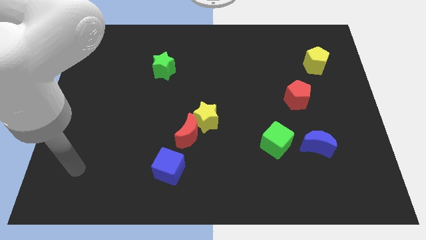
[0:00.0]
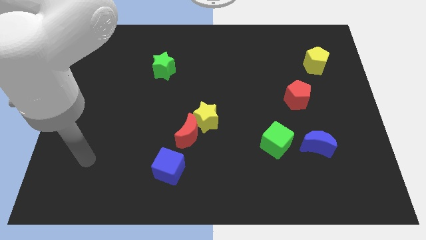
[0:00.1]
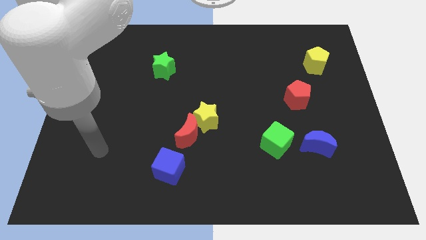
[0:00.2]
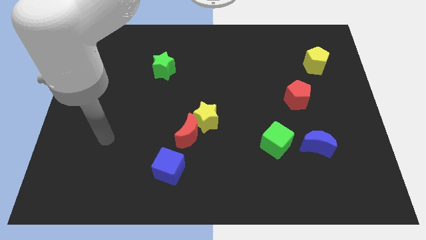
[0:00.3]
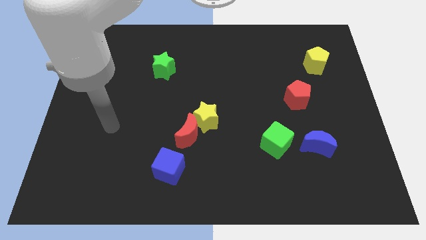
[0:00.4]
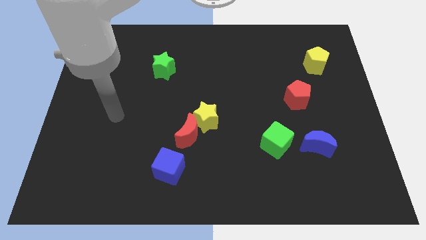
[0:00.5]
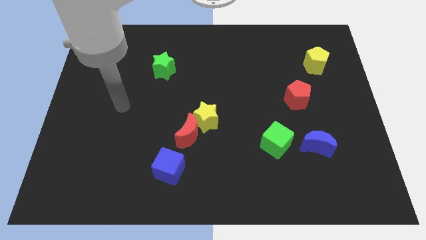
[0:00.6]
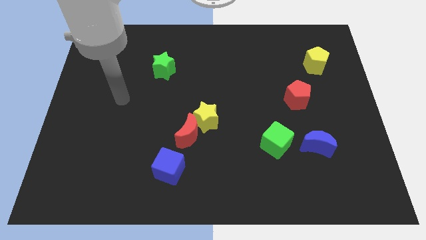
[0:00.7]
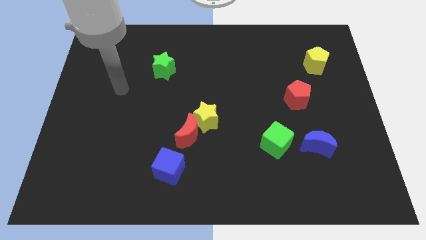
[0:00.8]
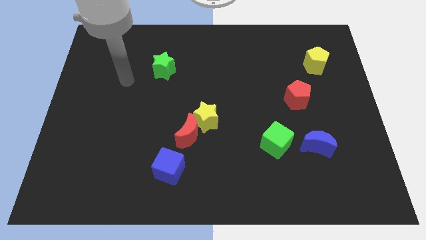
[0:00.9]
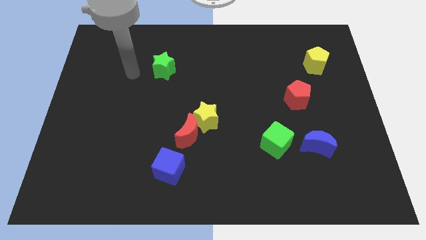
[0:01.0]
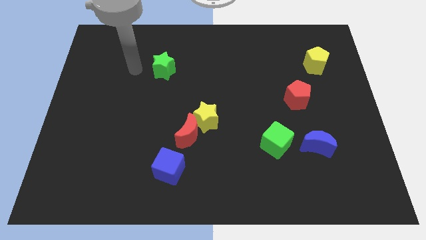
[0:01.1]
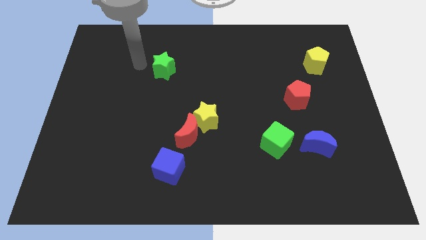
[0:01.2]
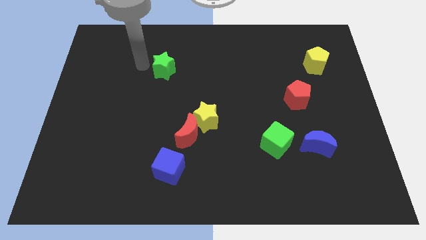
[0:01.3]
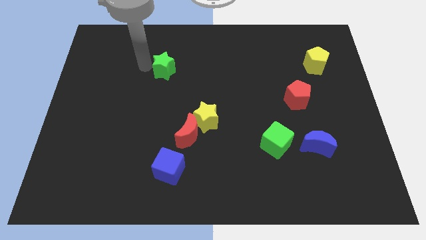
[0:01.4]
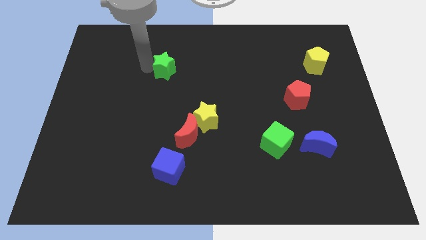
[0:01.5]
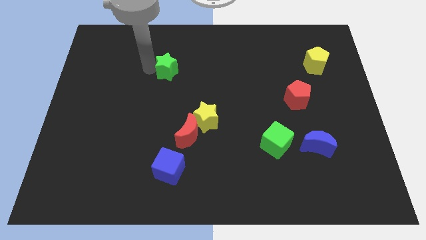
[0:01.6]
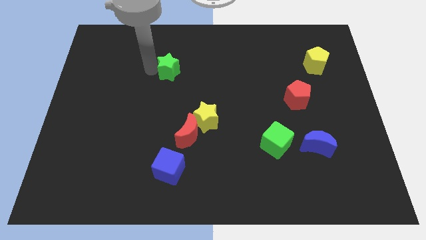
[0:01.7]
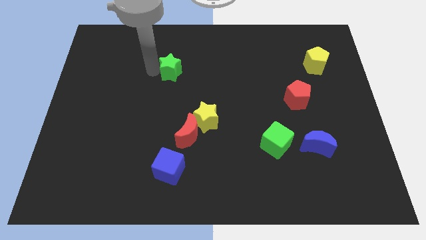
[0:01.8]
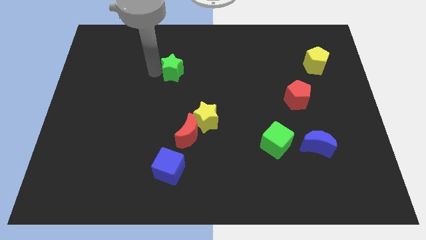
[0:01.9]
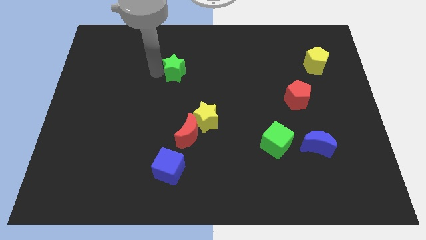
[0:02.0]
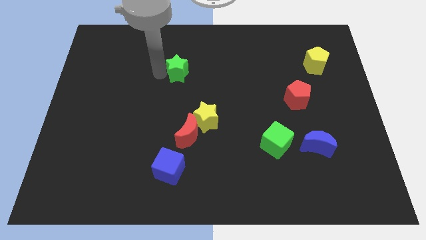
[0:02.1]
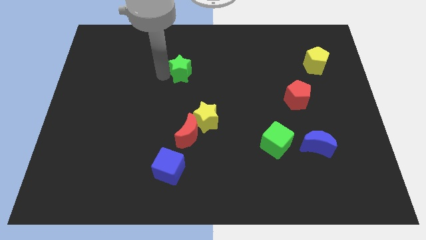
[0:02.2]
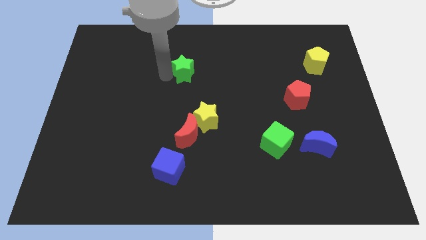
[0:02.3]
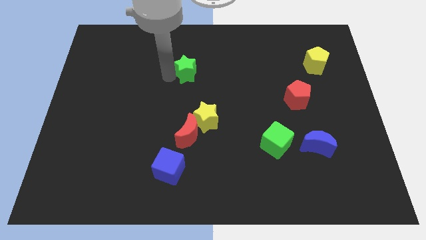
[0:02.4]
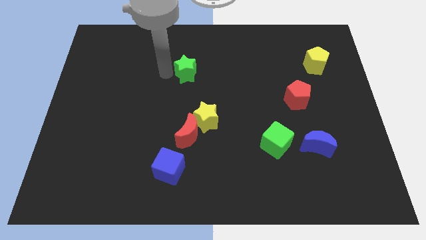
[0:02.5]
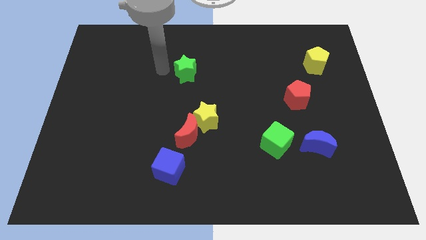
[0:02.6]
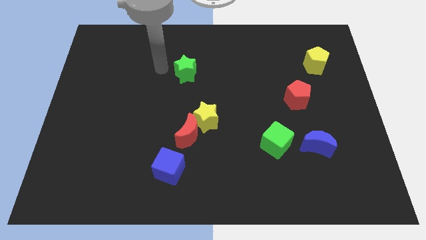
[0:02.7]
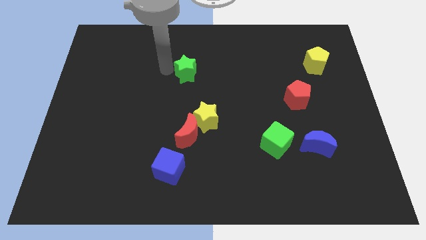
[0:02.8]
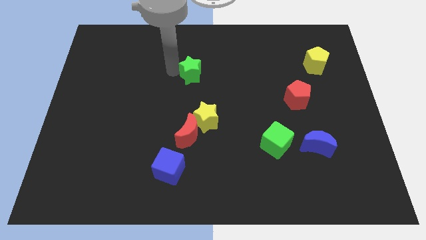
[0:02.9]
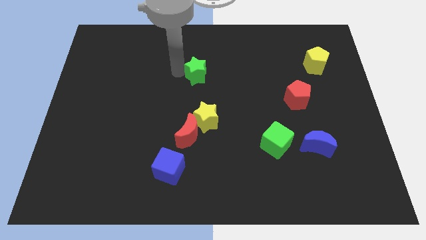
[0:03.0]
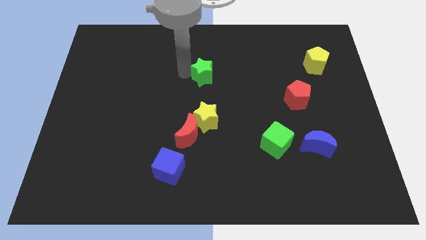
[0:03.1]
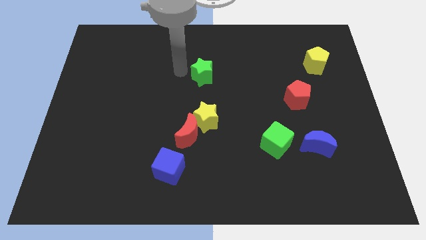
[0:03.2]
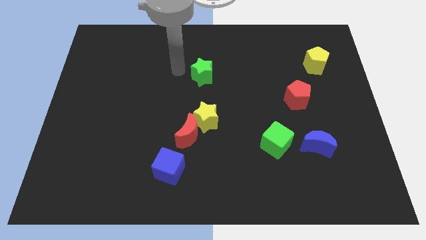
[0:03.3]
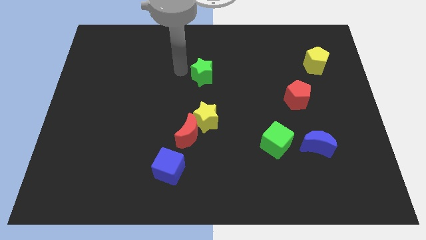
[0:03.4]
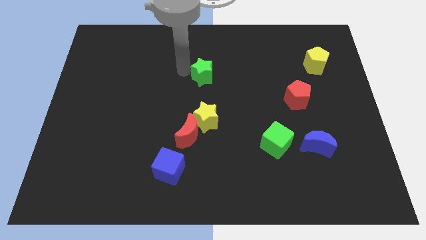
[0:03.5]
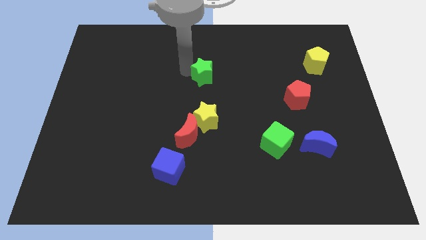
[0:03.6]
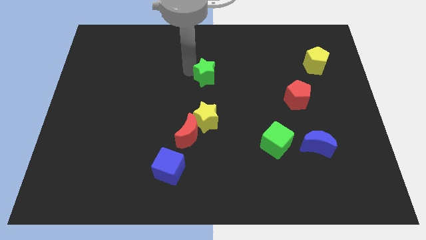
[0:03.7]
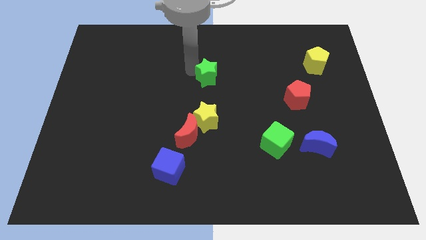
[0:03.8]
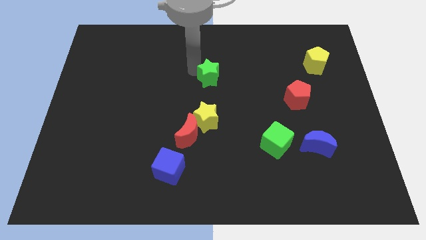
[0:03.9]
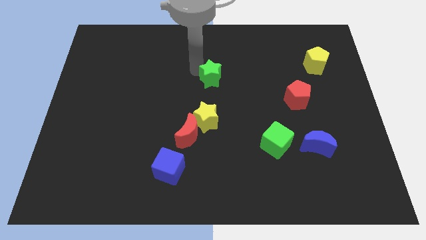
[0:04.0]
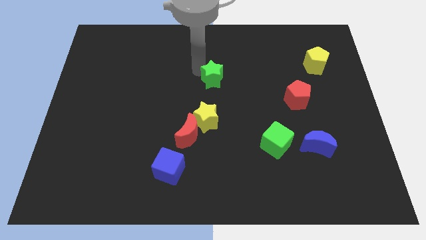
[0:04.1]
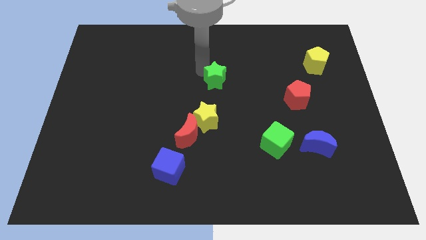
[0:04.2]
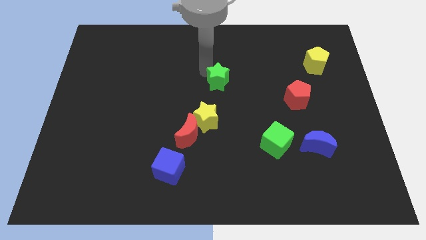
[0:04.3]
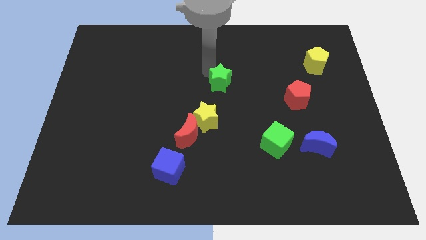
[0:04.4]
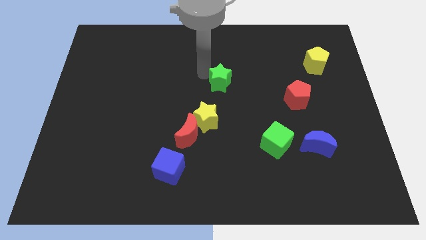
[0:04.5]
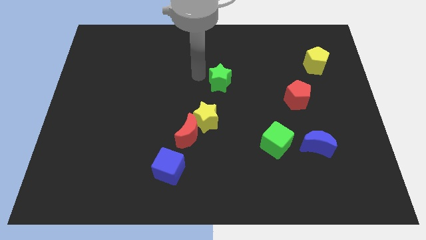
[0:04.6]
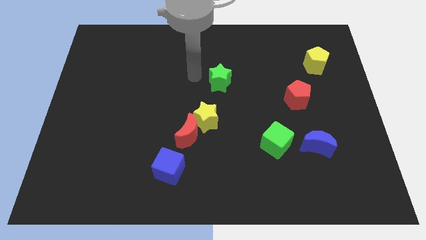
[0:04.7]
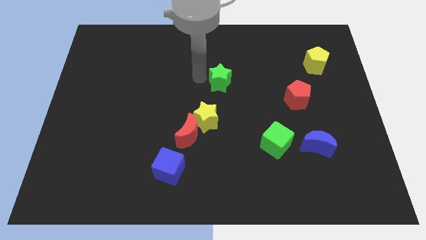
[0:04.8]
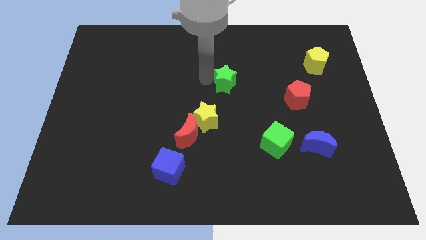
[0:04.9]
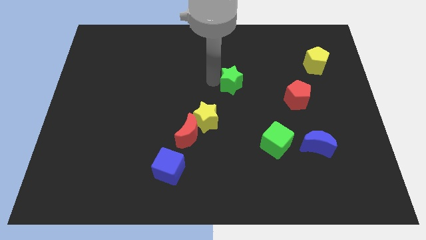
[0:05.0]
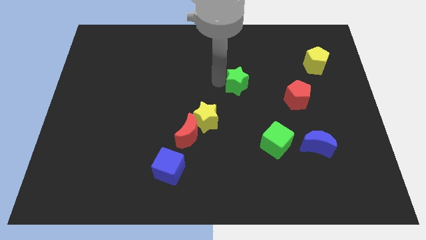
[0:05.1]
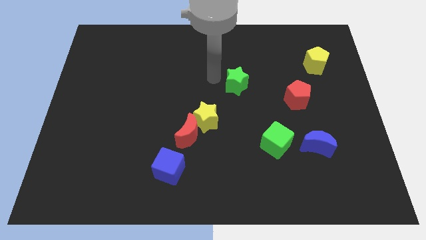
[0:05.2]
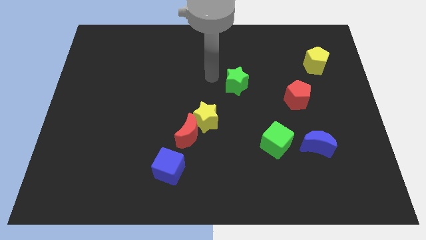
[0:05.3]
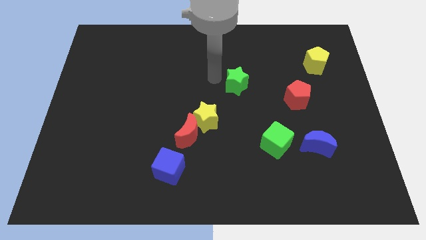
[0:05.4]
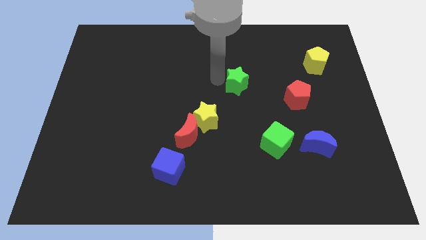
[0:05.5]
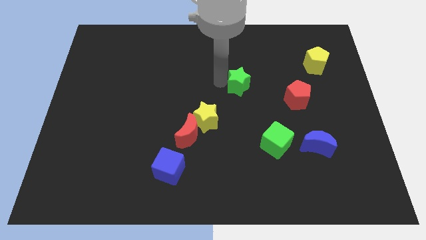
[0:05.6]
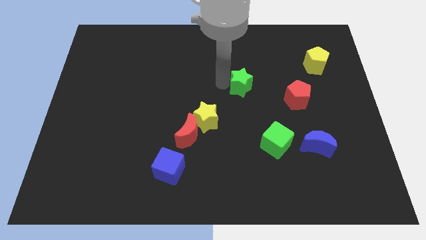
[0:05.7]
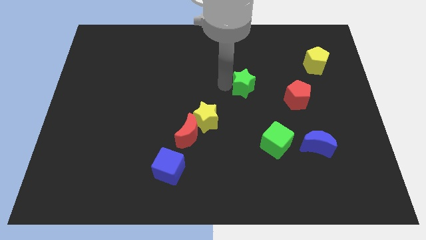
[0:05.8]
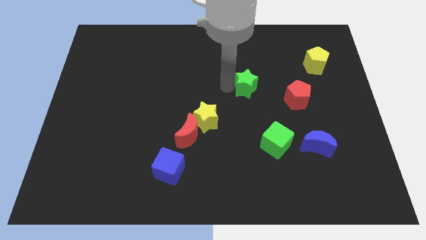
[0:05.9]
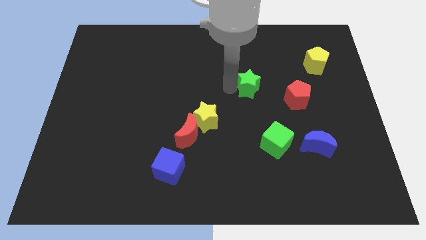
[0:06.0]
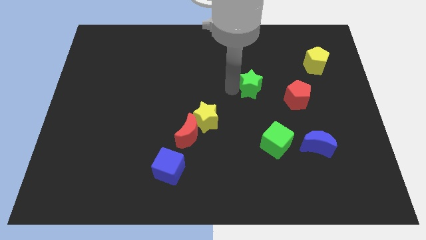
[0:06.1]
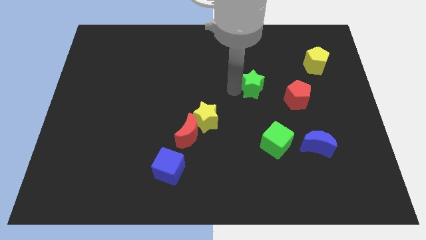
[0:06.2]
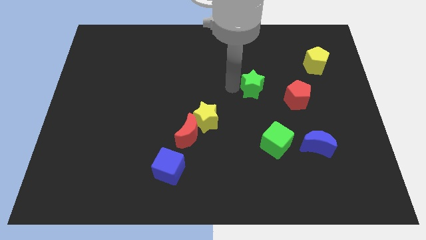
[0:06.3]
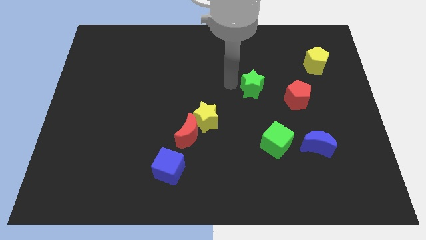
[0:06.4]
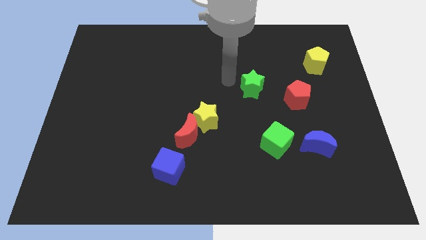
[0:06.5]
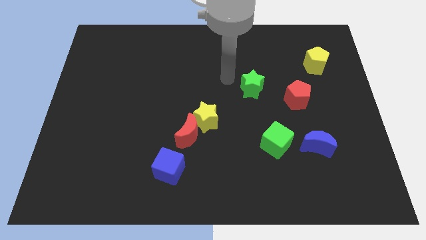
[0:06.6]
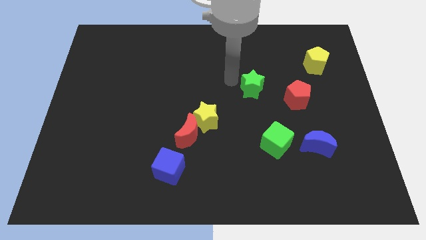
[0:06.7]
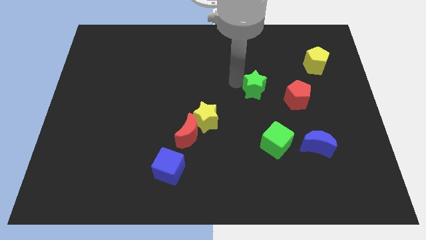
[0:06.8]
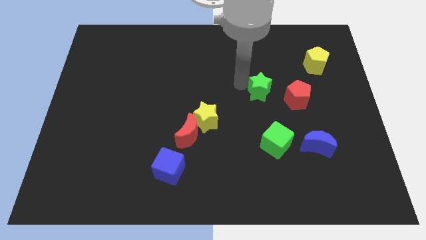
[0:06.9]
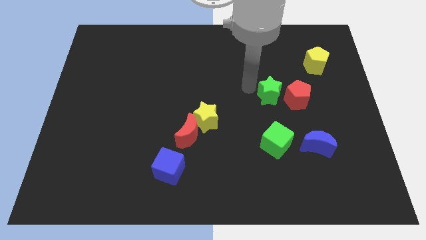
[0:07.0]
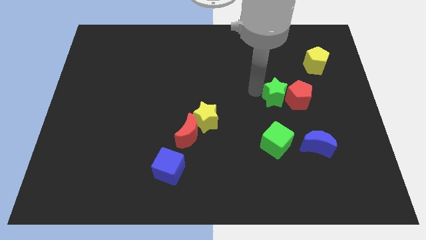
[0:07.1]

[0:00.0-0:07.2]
slide the green star close to the red pentagon

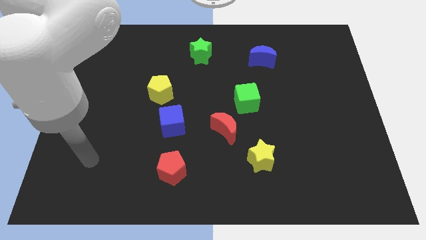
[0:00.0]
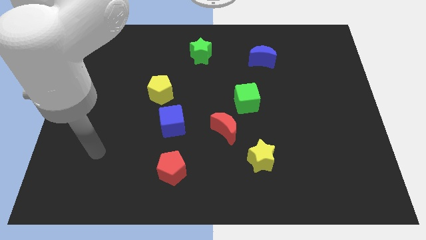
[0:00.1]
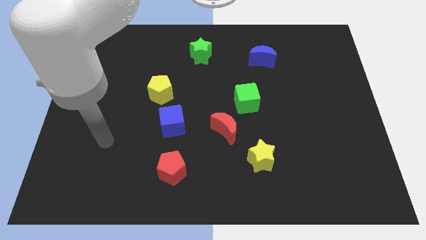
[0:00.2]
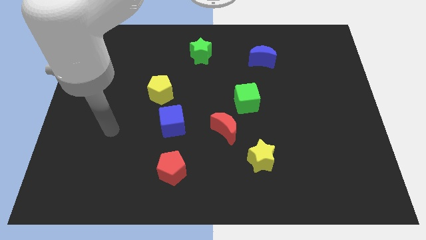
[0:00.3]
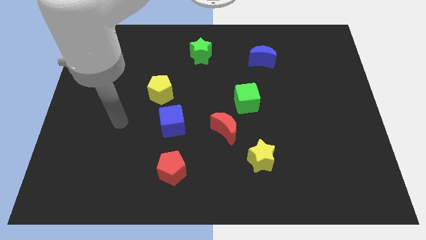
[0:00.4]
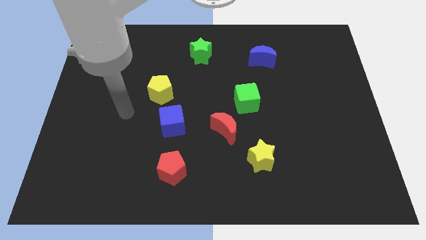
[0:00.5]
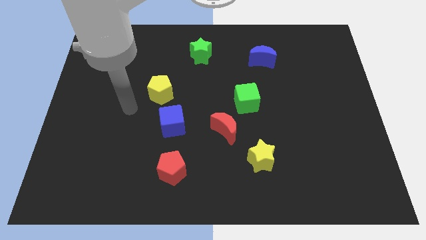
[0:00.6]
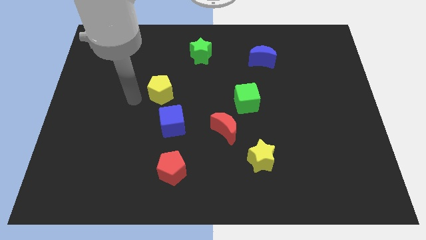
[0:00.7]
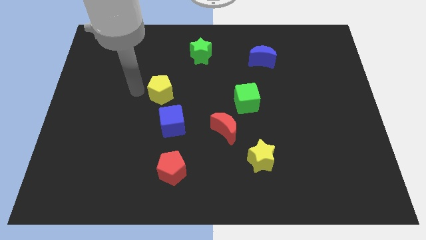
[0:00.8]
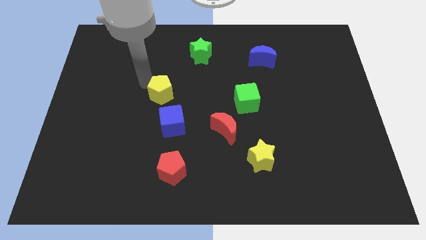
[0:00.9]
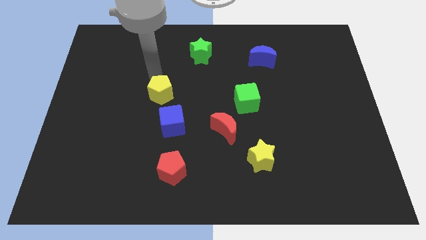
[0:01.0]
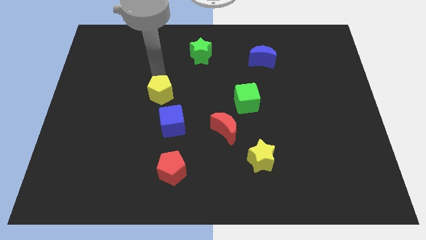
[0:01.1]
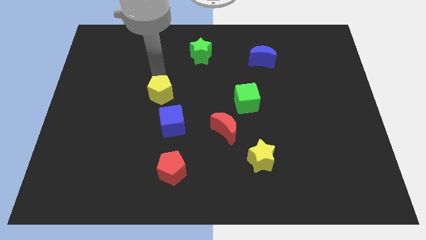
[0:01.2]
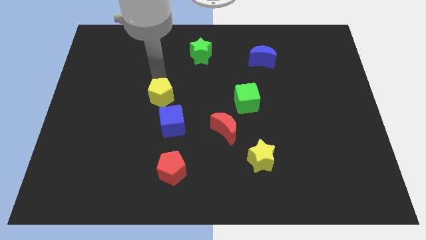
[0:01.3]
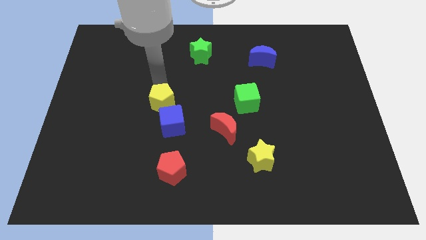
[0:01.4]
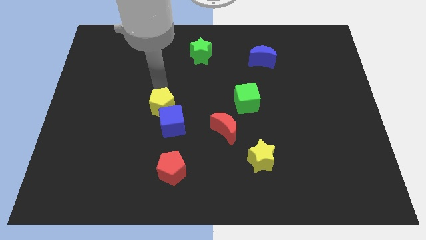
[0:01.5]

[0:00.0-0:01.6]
slide the yellow pentagon next to the blue cube
